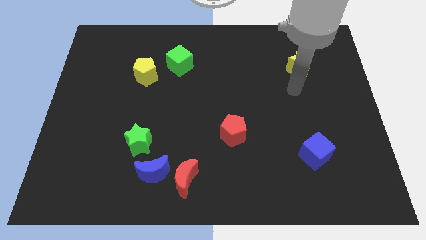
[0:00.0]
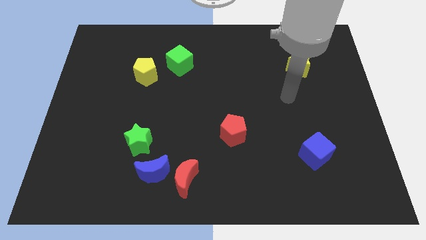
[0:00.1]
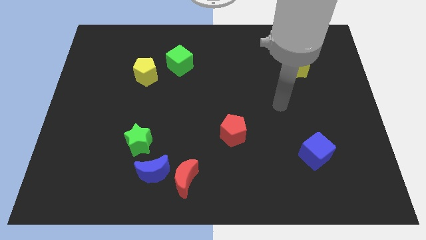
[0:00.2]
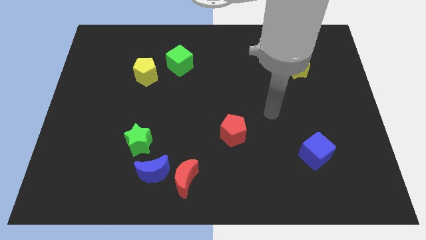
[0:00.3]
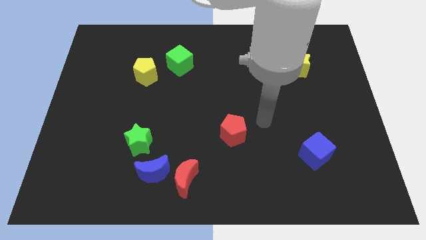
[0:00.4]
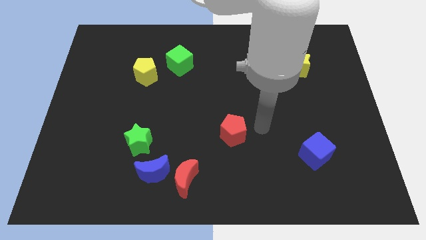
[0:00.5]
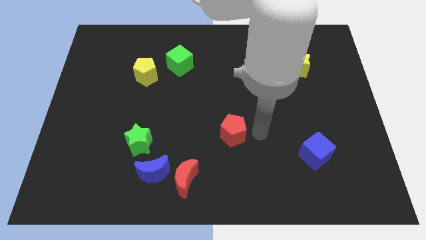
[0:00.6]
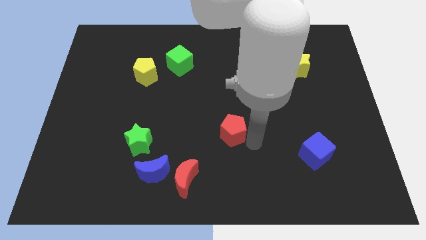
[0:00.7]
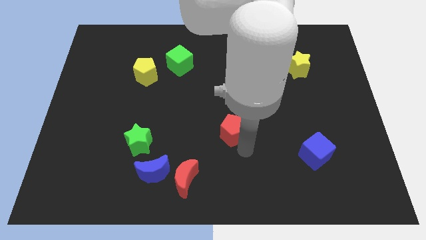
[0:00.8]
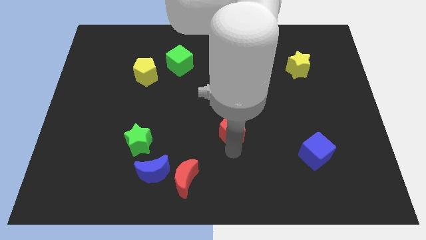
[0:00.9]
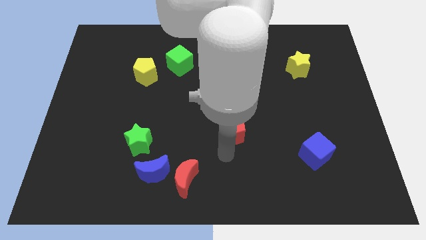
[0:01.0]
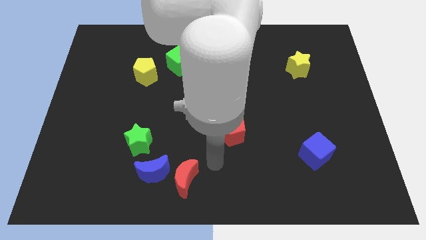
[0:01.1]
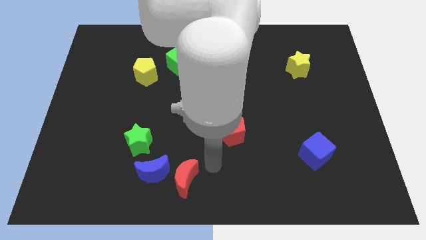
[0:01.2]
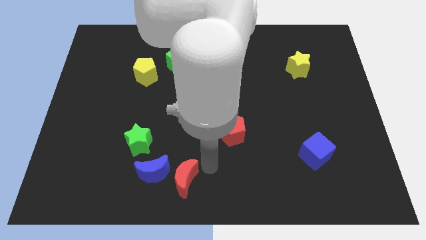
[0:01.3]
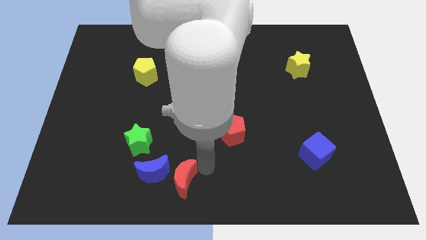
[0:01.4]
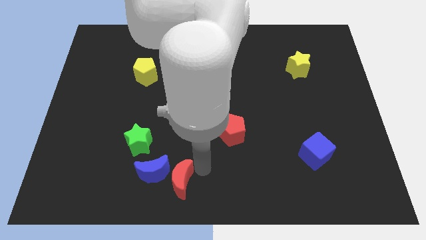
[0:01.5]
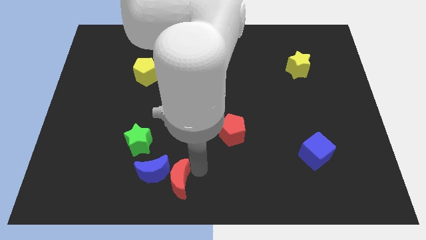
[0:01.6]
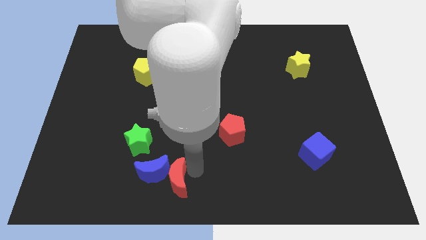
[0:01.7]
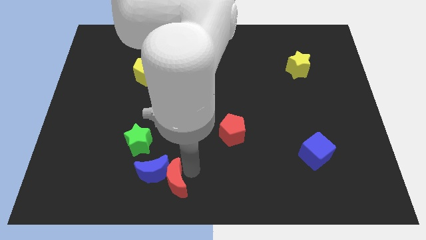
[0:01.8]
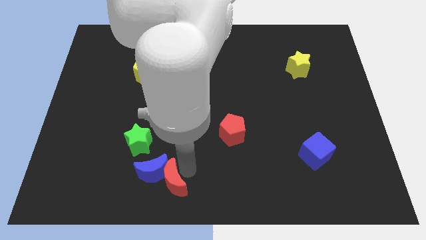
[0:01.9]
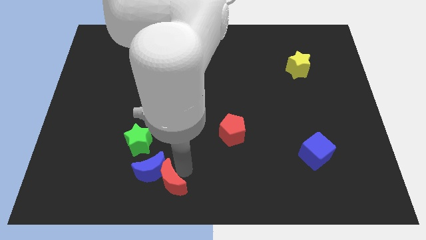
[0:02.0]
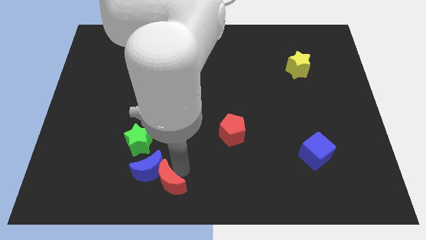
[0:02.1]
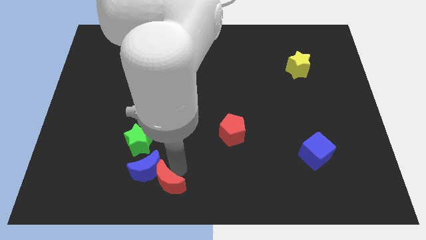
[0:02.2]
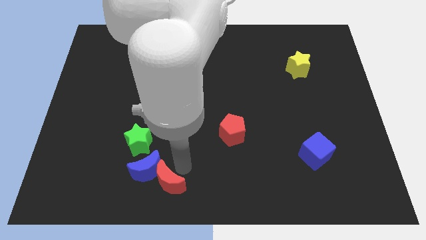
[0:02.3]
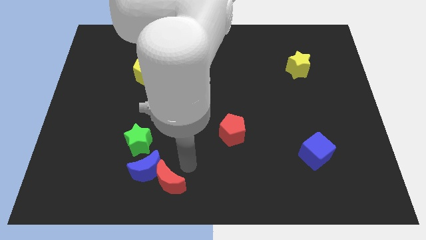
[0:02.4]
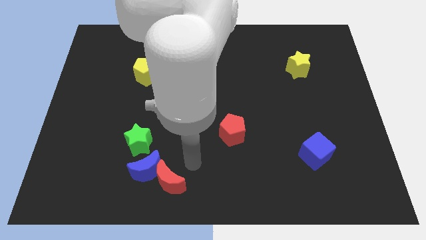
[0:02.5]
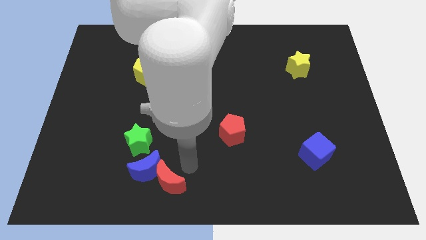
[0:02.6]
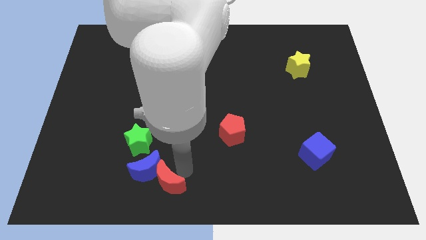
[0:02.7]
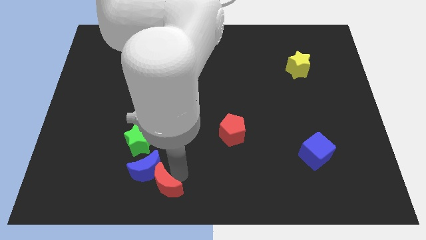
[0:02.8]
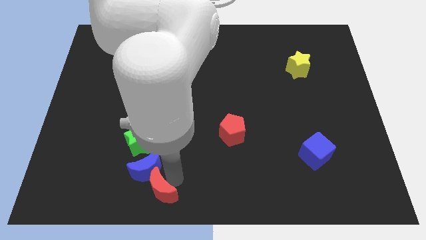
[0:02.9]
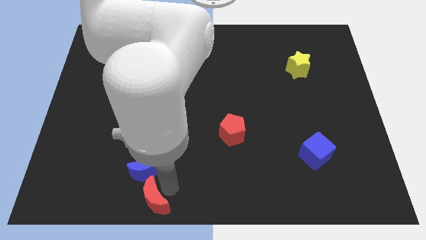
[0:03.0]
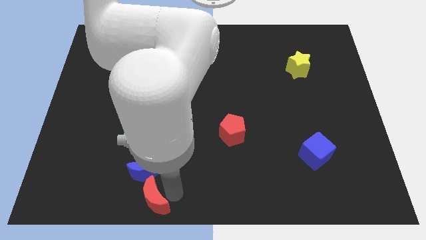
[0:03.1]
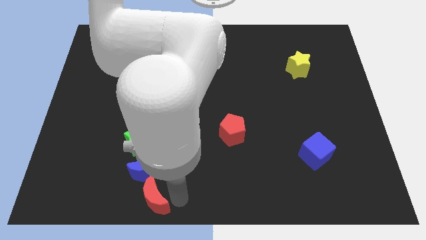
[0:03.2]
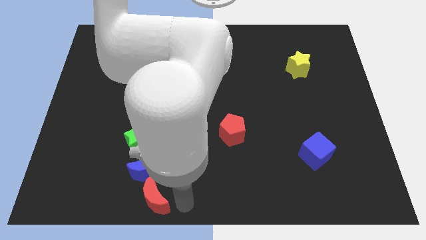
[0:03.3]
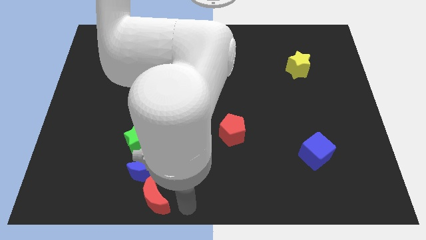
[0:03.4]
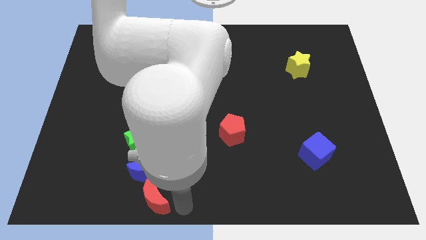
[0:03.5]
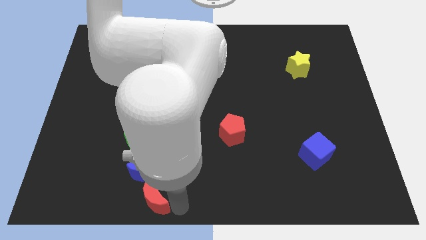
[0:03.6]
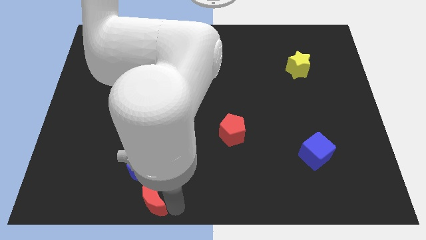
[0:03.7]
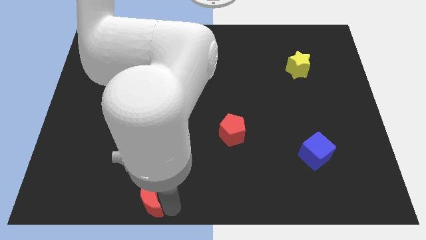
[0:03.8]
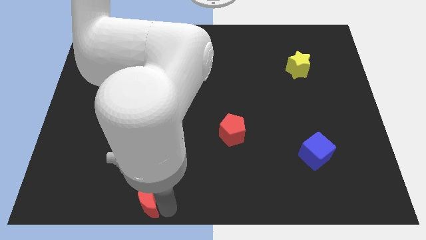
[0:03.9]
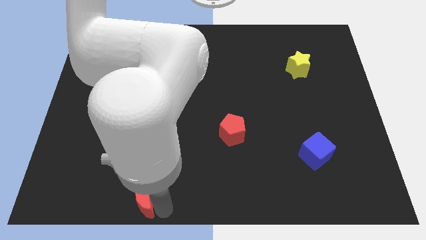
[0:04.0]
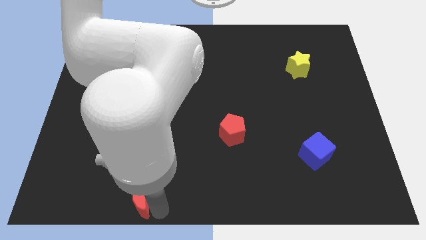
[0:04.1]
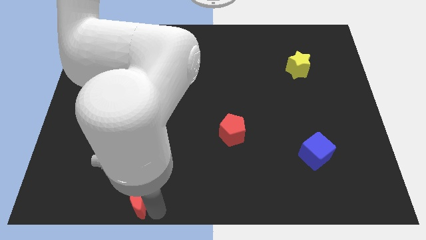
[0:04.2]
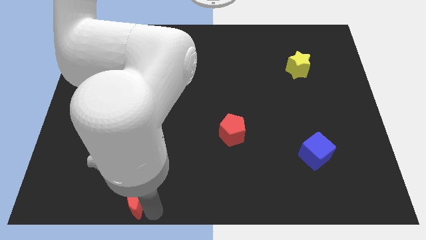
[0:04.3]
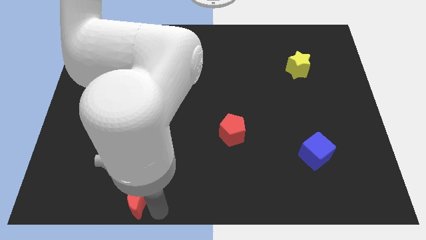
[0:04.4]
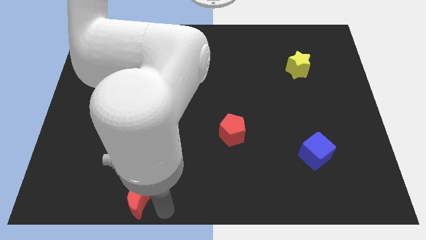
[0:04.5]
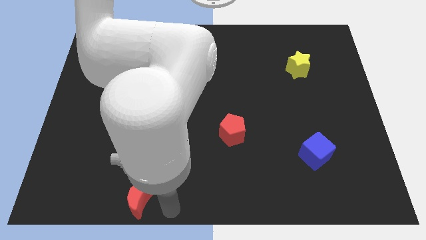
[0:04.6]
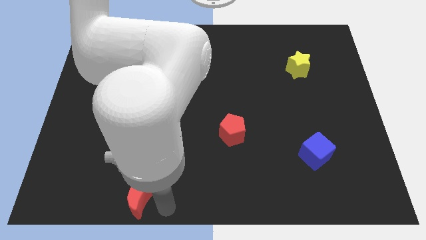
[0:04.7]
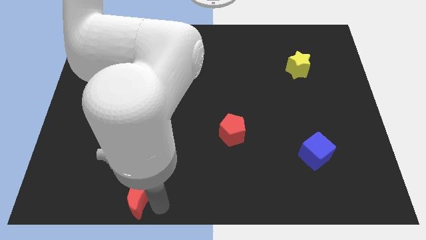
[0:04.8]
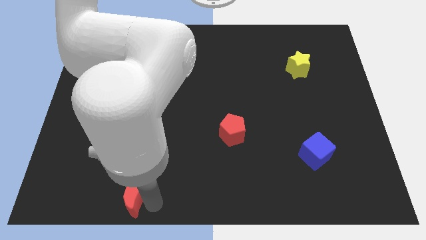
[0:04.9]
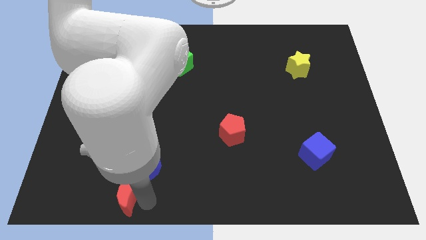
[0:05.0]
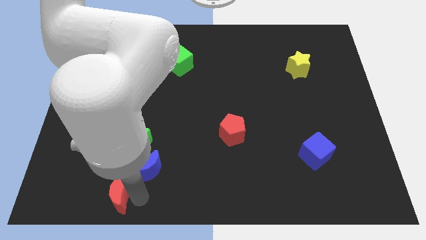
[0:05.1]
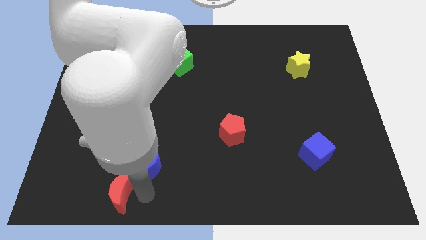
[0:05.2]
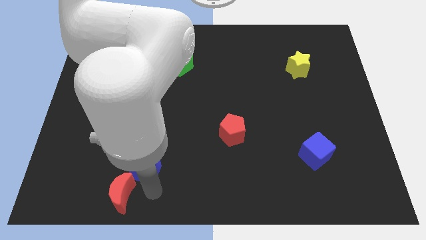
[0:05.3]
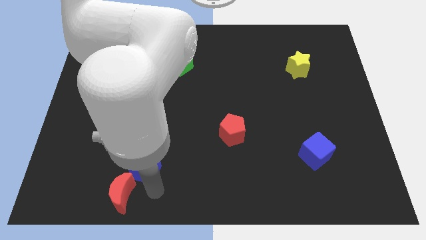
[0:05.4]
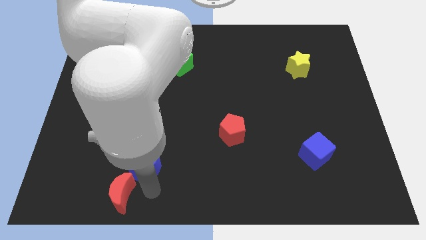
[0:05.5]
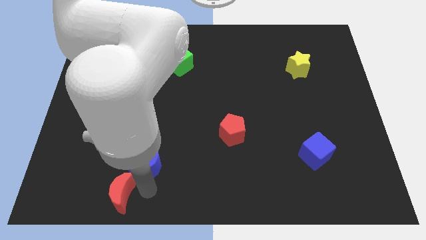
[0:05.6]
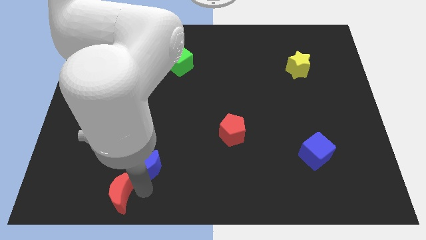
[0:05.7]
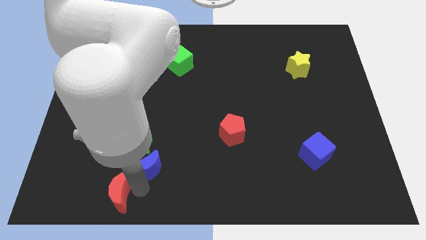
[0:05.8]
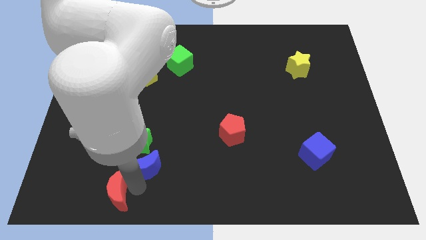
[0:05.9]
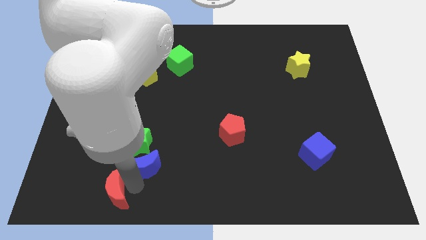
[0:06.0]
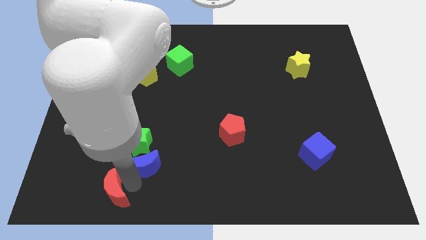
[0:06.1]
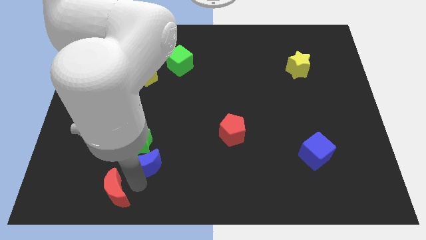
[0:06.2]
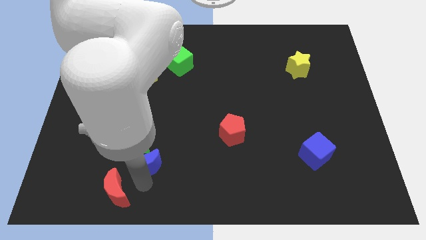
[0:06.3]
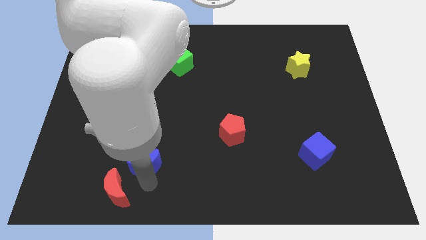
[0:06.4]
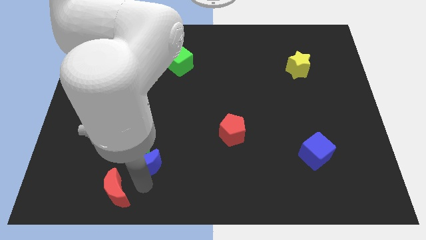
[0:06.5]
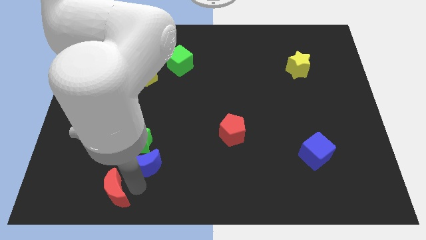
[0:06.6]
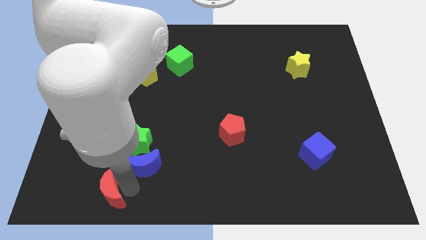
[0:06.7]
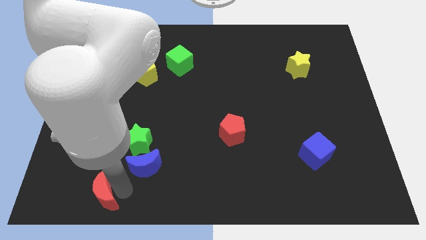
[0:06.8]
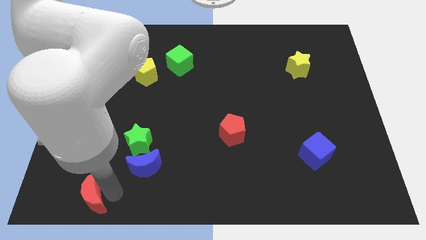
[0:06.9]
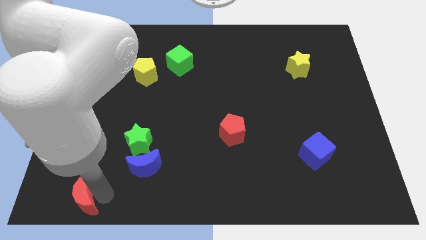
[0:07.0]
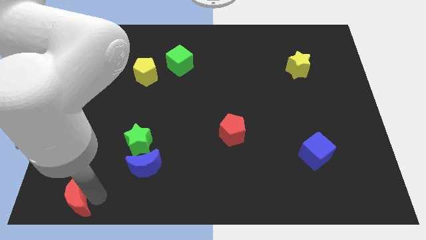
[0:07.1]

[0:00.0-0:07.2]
push the red moon to the lower left corner
